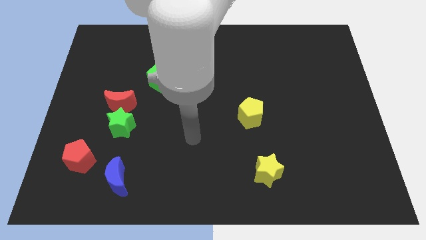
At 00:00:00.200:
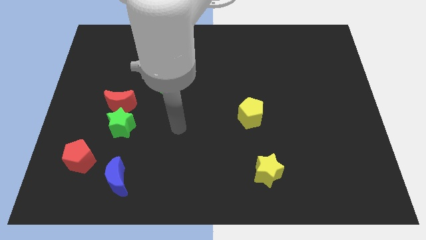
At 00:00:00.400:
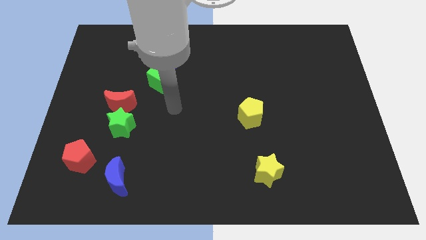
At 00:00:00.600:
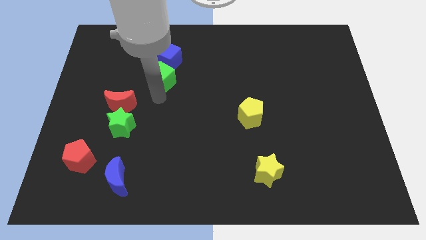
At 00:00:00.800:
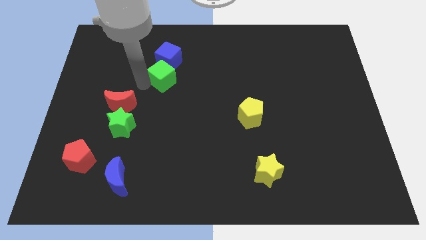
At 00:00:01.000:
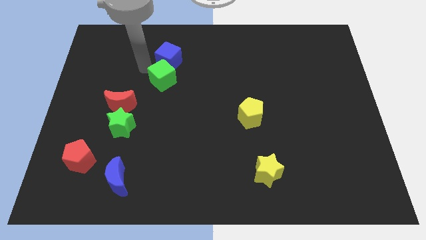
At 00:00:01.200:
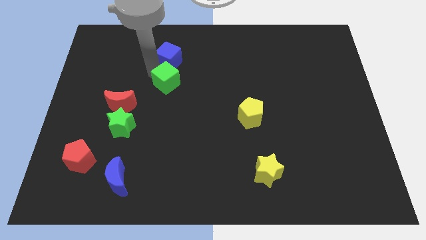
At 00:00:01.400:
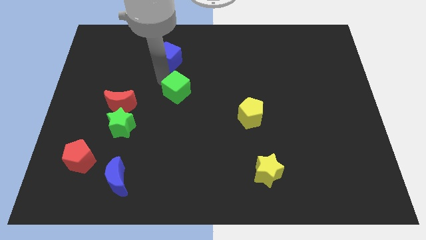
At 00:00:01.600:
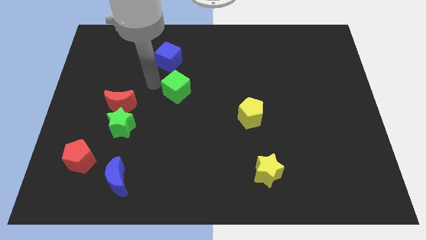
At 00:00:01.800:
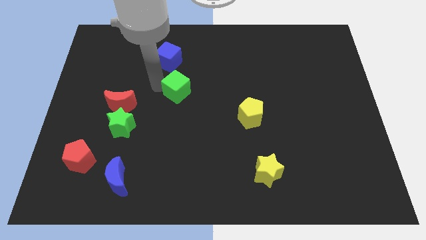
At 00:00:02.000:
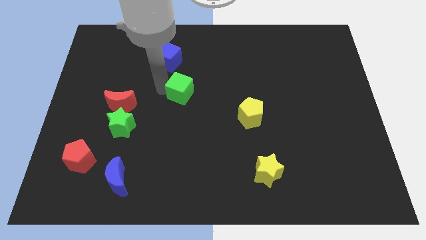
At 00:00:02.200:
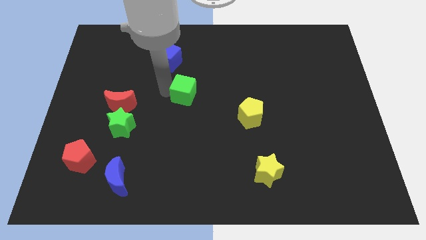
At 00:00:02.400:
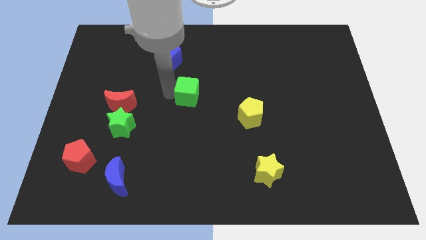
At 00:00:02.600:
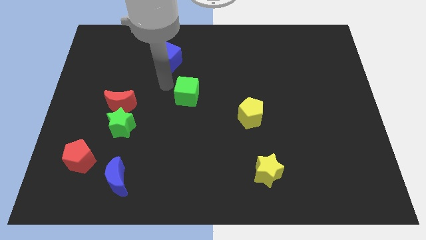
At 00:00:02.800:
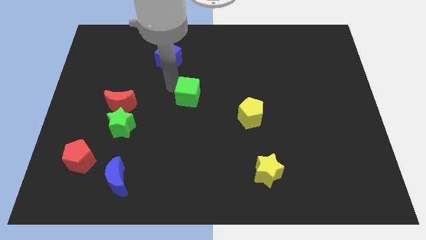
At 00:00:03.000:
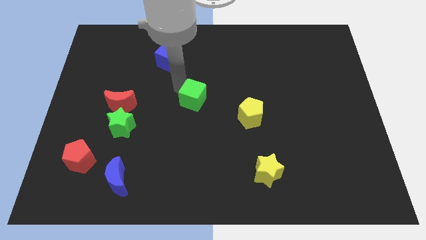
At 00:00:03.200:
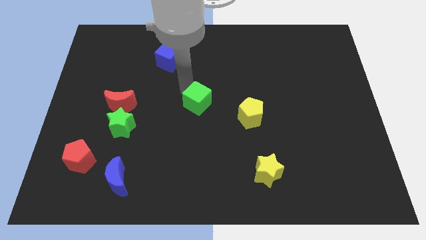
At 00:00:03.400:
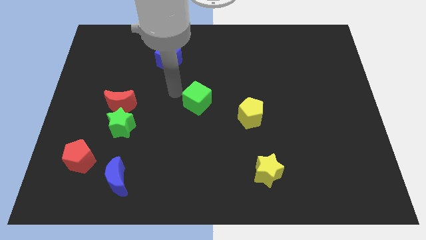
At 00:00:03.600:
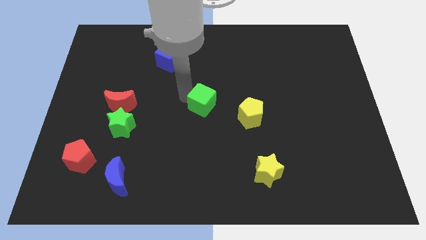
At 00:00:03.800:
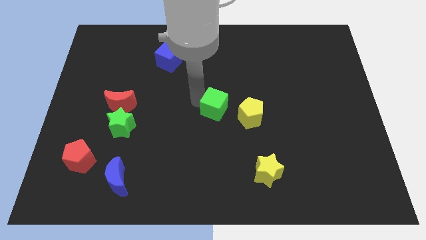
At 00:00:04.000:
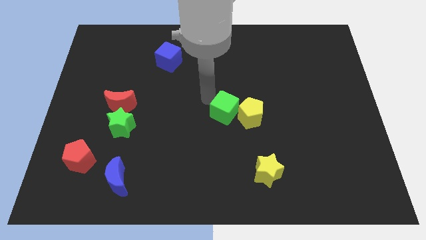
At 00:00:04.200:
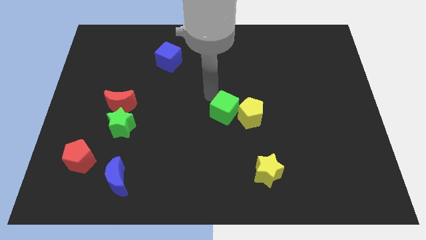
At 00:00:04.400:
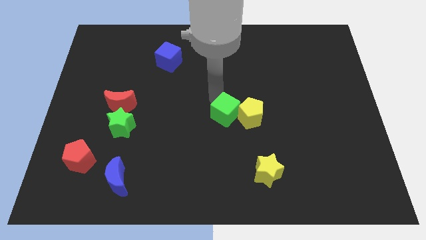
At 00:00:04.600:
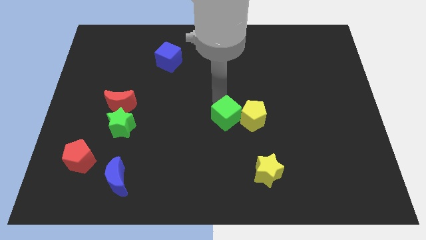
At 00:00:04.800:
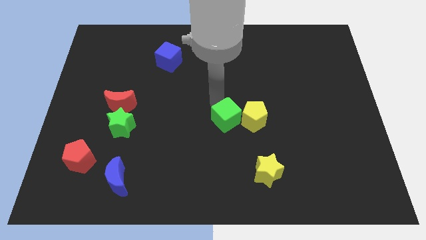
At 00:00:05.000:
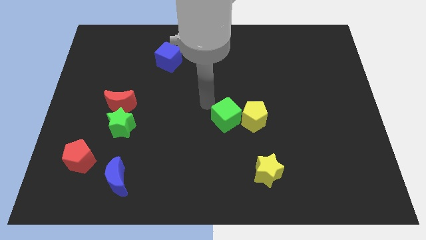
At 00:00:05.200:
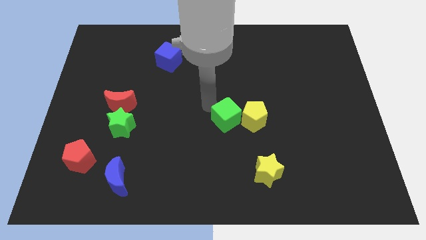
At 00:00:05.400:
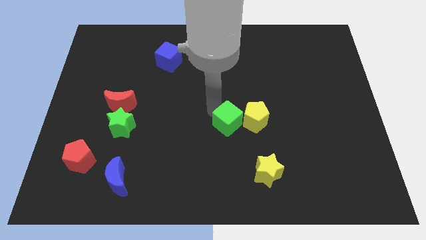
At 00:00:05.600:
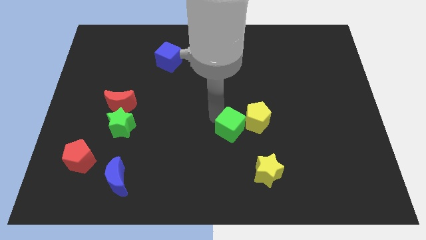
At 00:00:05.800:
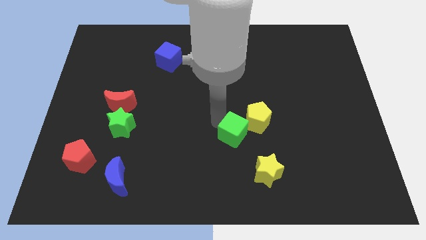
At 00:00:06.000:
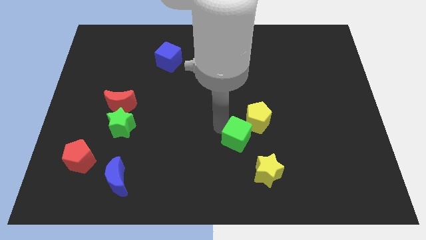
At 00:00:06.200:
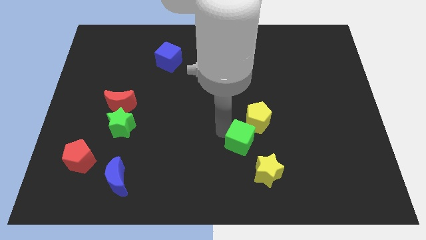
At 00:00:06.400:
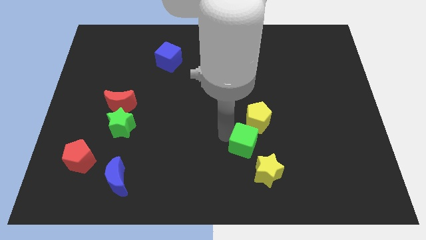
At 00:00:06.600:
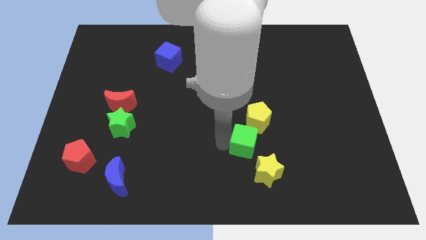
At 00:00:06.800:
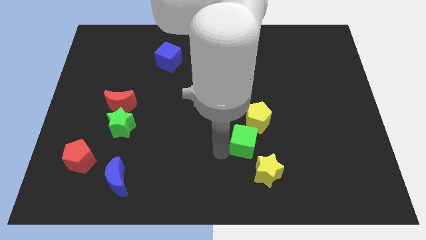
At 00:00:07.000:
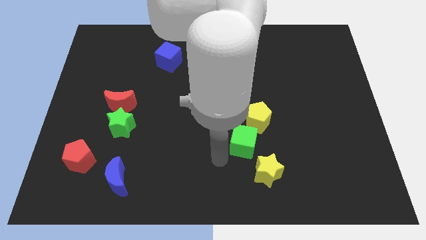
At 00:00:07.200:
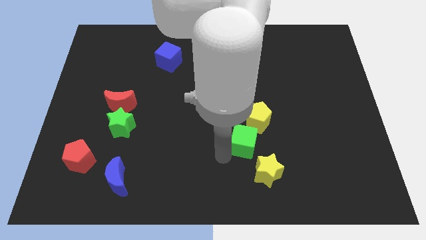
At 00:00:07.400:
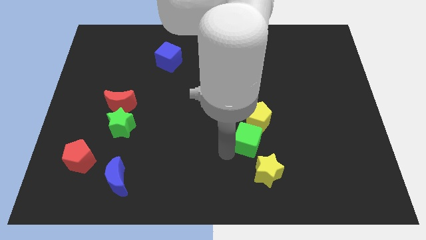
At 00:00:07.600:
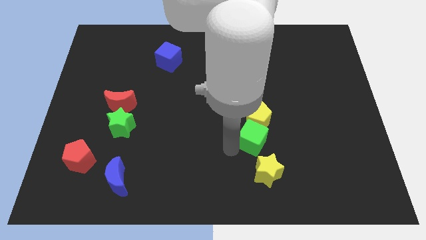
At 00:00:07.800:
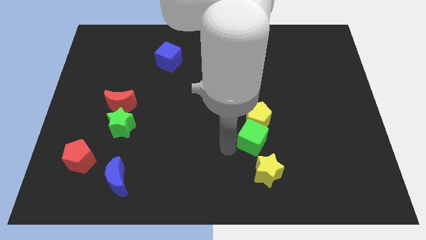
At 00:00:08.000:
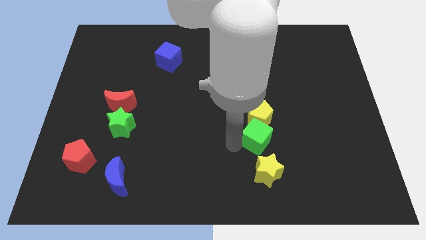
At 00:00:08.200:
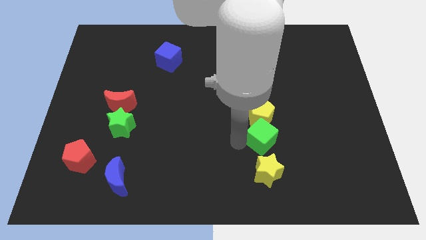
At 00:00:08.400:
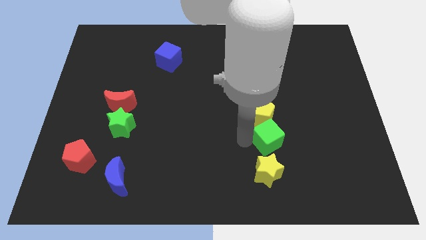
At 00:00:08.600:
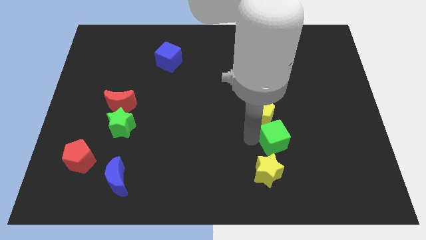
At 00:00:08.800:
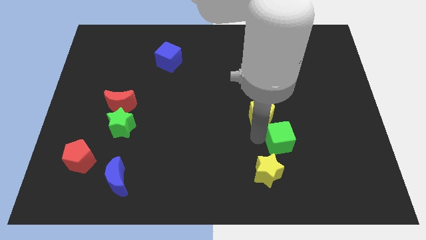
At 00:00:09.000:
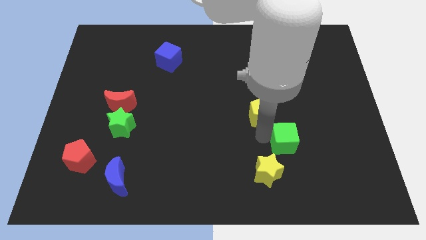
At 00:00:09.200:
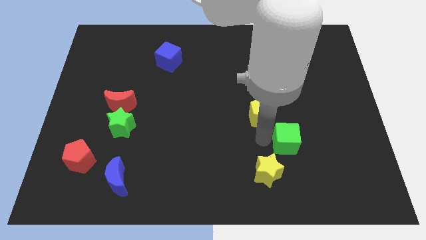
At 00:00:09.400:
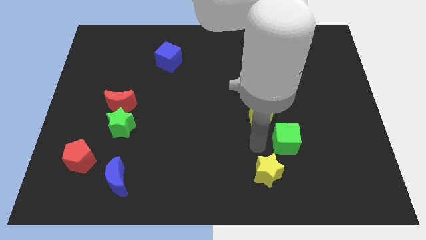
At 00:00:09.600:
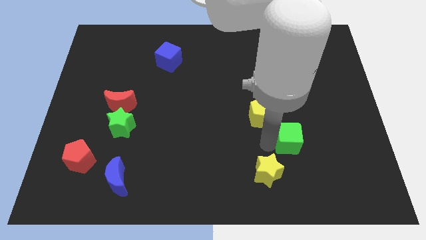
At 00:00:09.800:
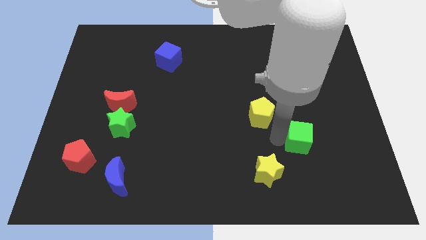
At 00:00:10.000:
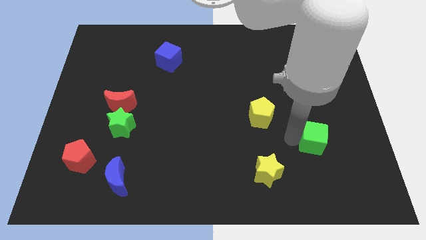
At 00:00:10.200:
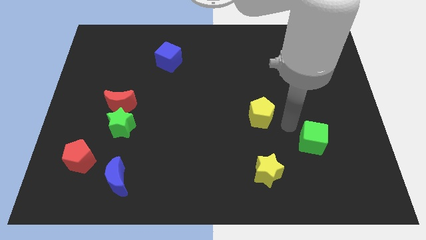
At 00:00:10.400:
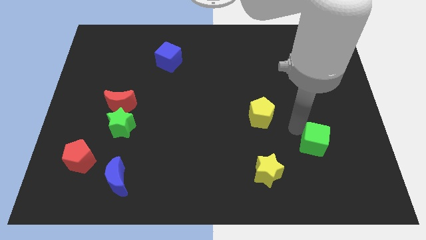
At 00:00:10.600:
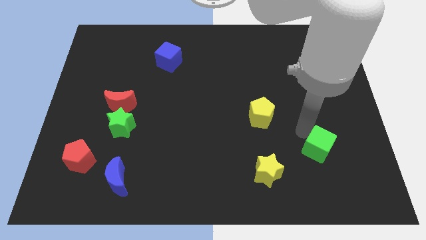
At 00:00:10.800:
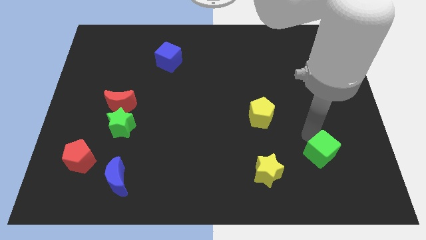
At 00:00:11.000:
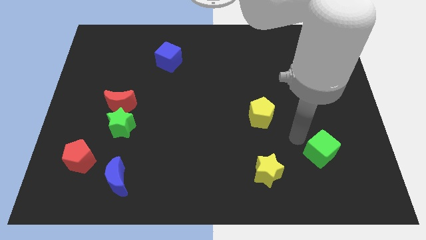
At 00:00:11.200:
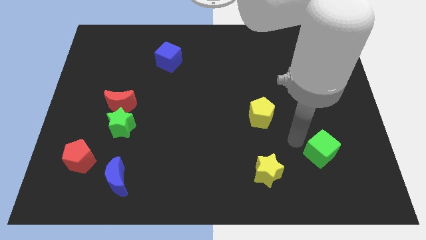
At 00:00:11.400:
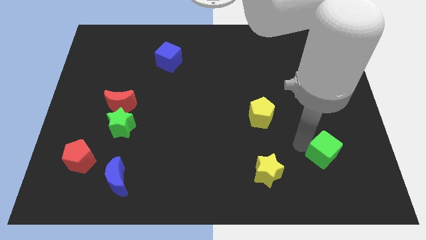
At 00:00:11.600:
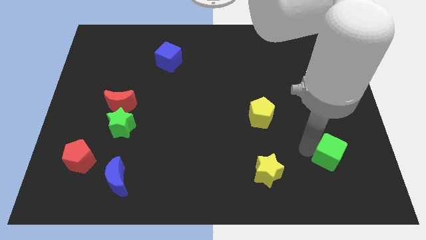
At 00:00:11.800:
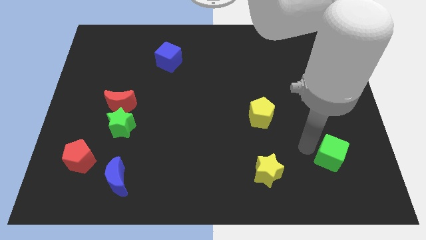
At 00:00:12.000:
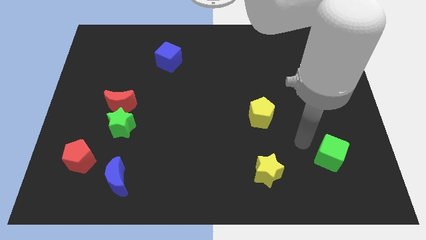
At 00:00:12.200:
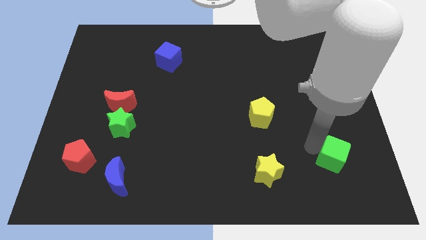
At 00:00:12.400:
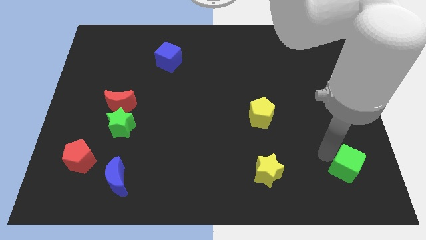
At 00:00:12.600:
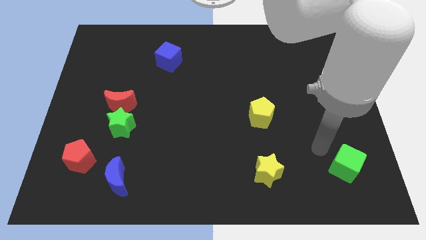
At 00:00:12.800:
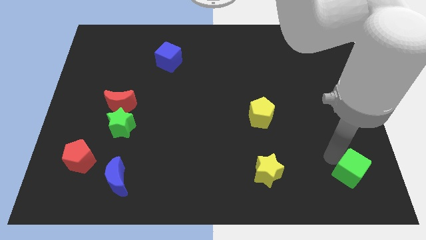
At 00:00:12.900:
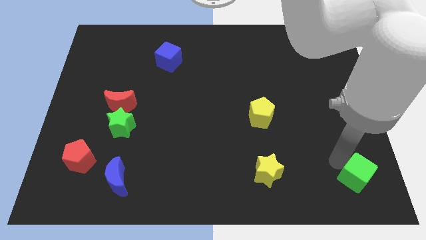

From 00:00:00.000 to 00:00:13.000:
move the green cube to the bottom right of the board
